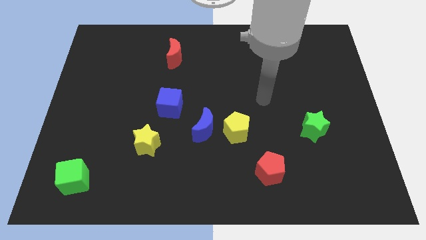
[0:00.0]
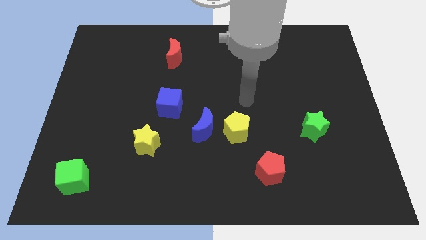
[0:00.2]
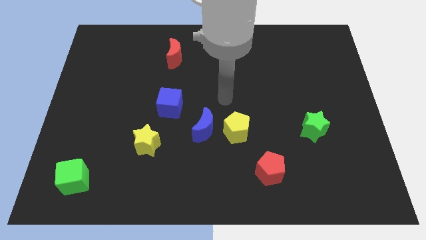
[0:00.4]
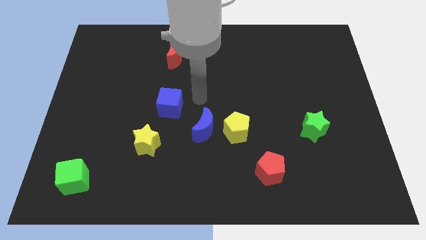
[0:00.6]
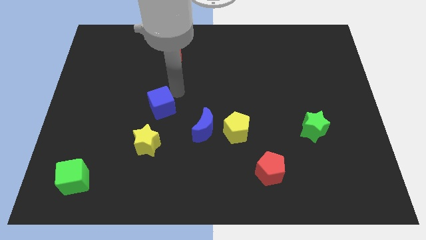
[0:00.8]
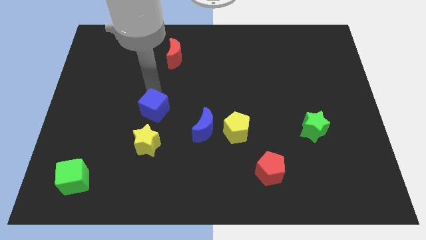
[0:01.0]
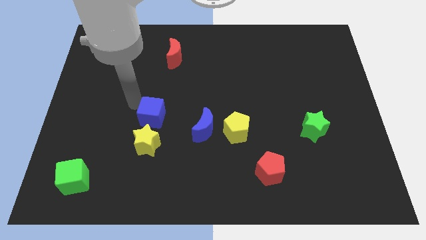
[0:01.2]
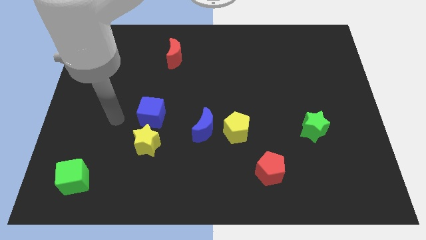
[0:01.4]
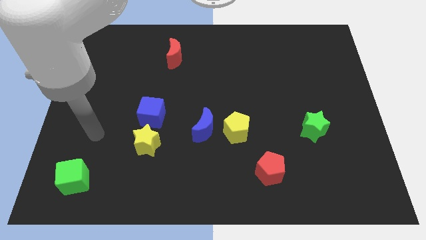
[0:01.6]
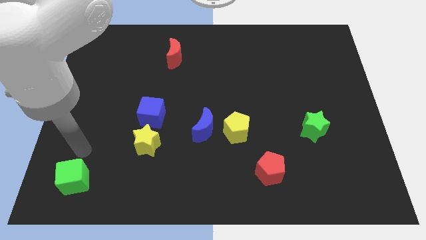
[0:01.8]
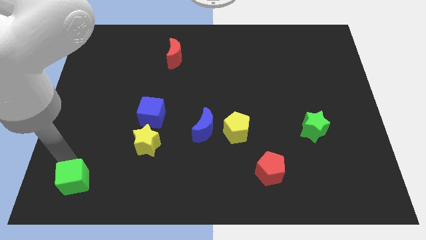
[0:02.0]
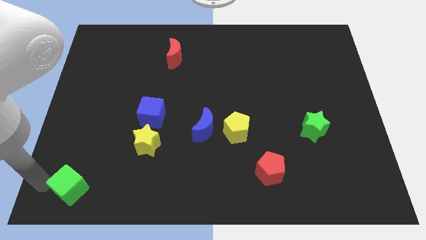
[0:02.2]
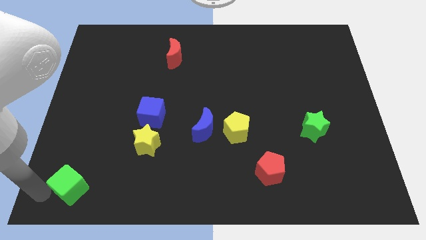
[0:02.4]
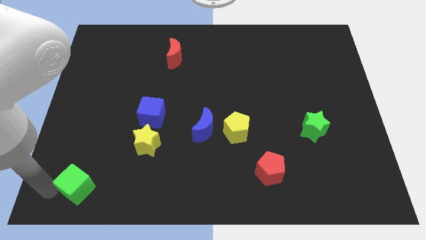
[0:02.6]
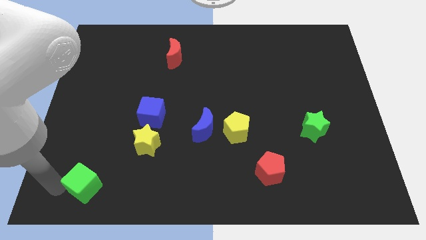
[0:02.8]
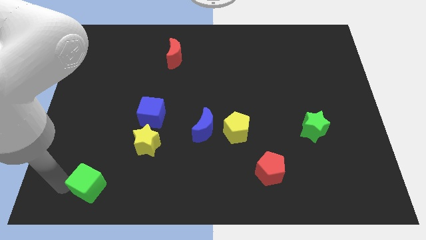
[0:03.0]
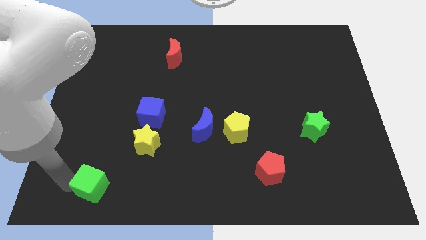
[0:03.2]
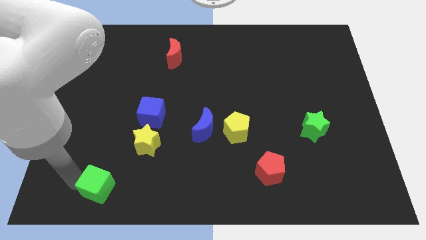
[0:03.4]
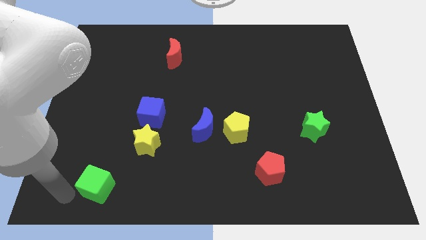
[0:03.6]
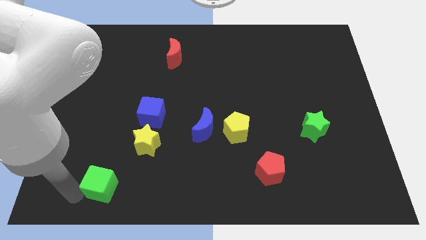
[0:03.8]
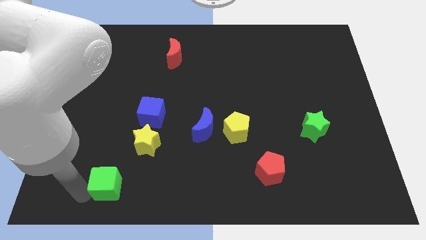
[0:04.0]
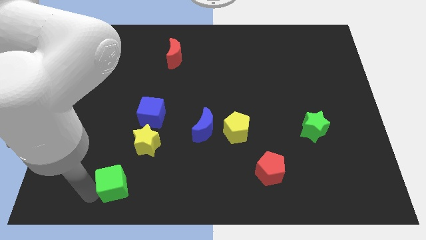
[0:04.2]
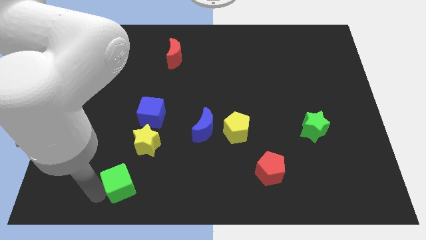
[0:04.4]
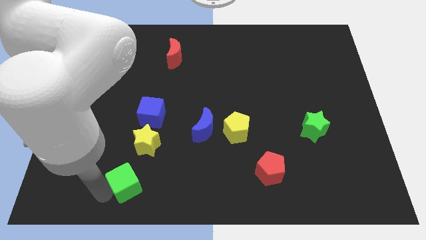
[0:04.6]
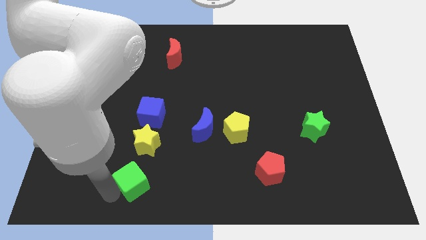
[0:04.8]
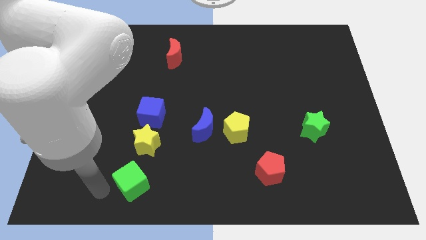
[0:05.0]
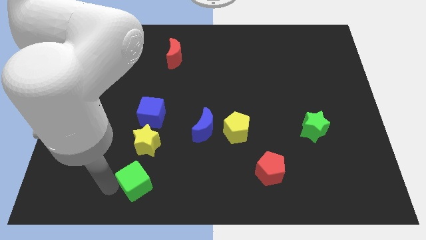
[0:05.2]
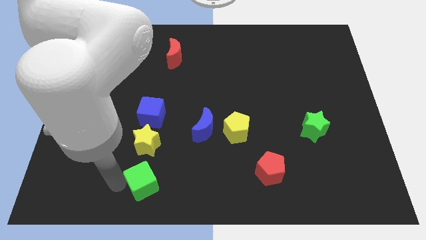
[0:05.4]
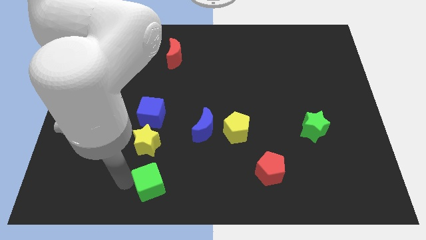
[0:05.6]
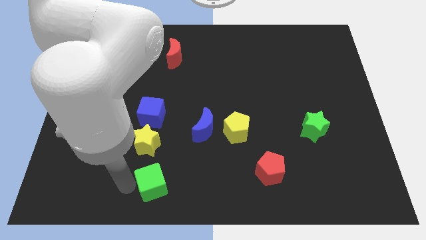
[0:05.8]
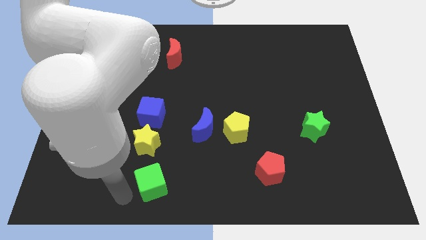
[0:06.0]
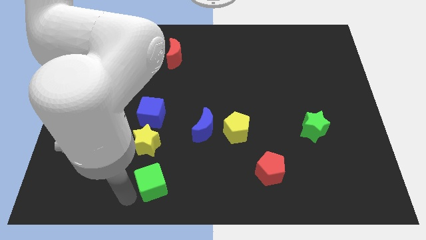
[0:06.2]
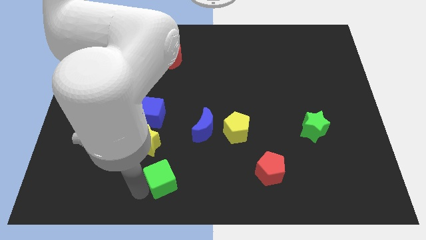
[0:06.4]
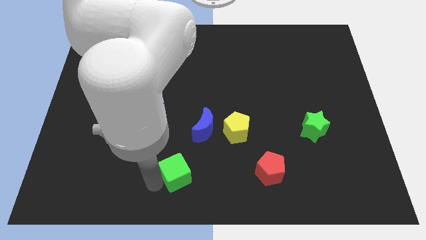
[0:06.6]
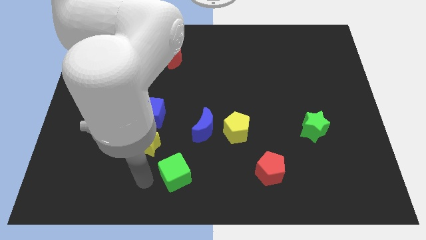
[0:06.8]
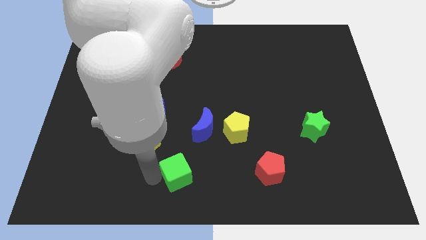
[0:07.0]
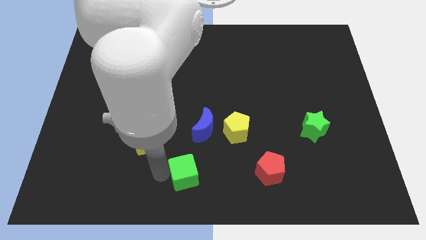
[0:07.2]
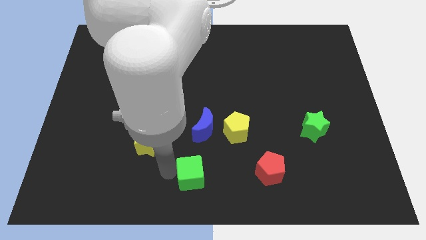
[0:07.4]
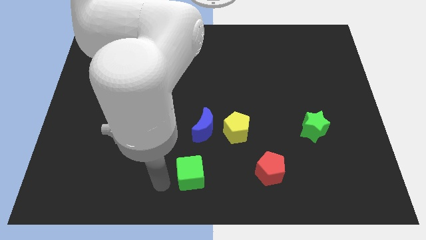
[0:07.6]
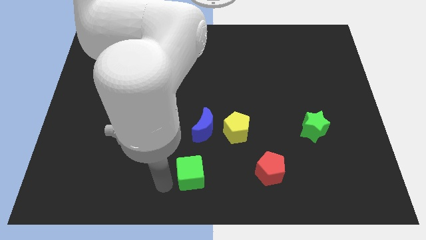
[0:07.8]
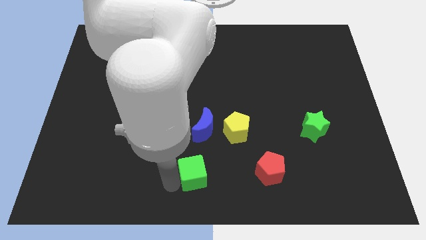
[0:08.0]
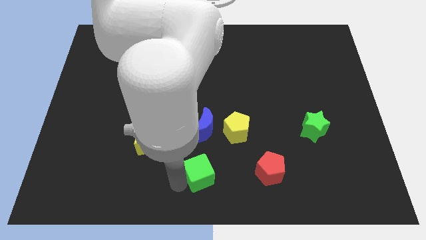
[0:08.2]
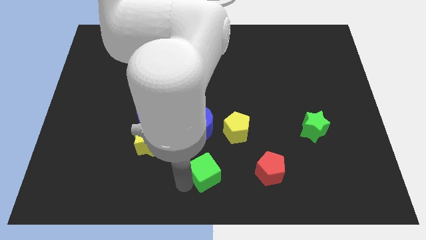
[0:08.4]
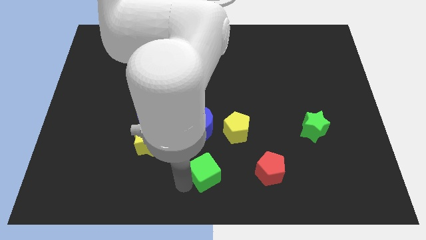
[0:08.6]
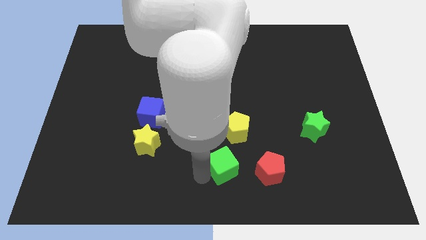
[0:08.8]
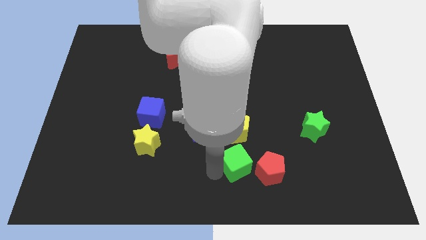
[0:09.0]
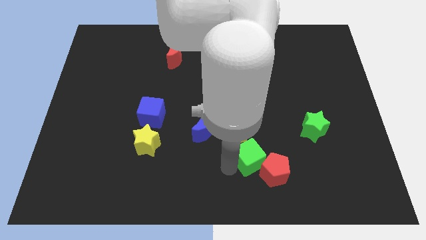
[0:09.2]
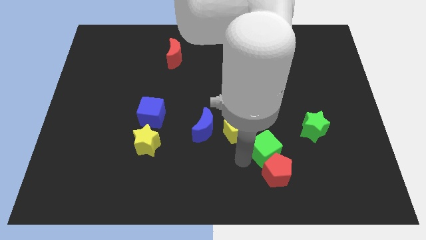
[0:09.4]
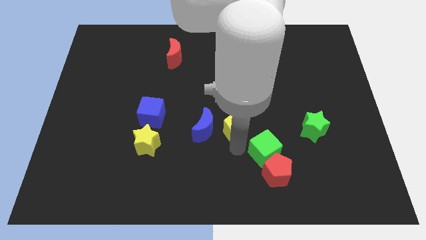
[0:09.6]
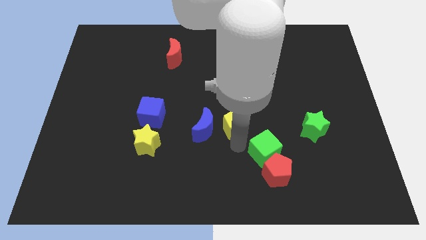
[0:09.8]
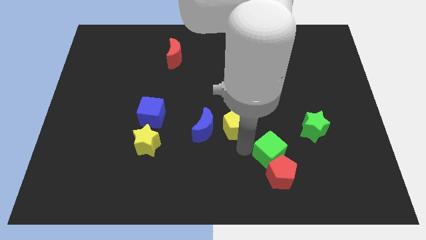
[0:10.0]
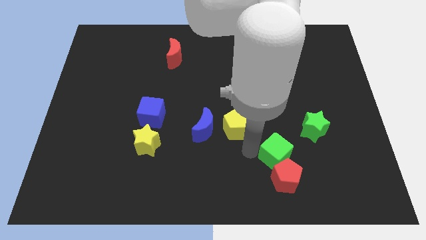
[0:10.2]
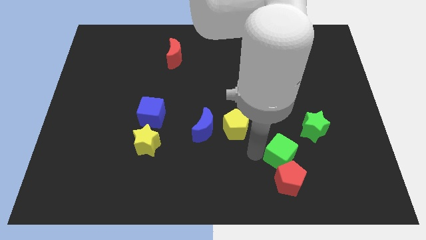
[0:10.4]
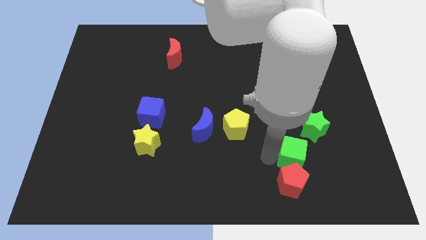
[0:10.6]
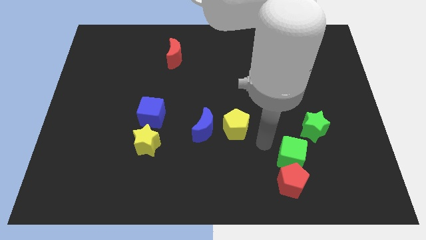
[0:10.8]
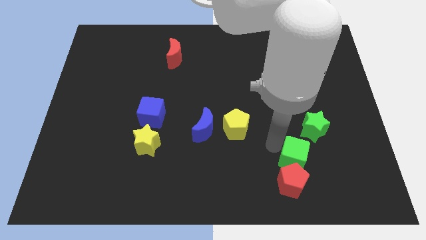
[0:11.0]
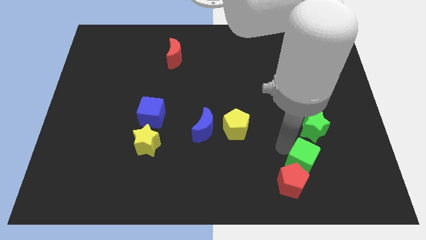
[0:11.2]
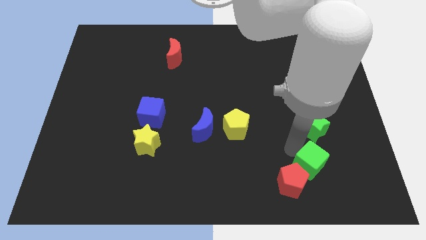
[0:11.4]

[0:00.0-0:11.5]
slide the green cube to the right of the red pentagon
